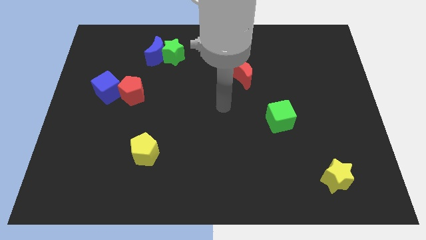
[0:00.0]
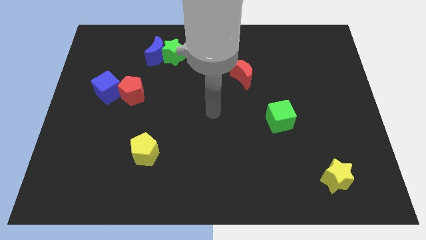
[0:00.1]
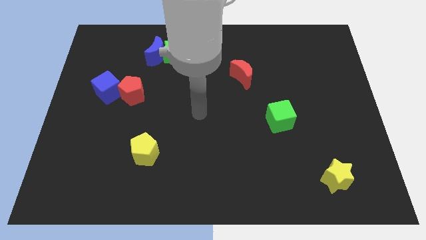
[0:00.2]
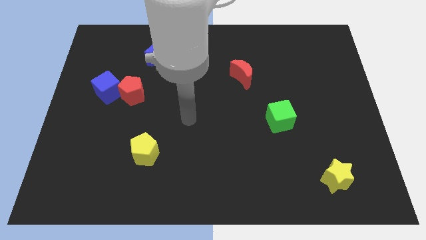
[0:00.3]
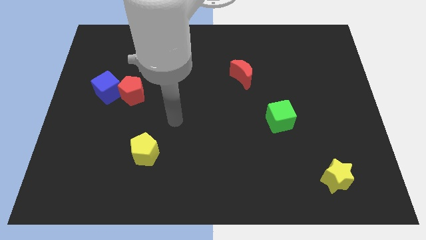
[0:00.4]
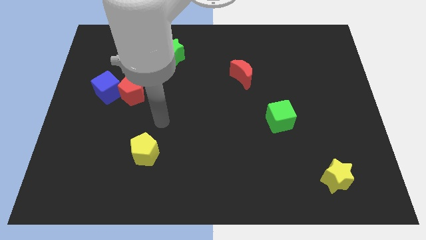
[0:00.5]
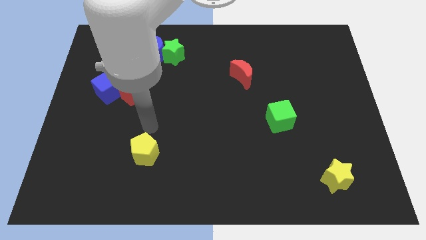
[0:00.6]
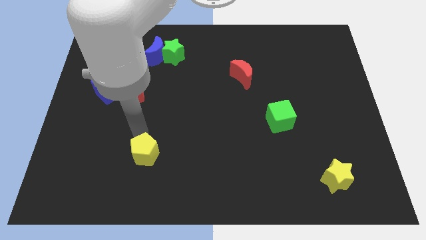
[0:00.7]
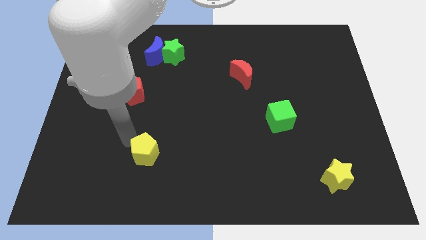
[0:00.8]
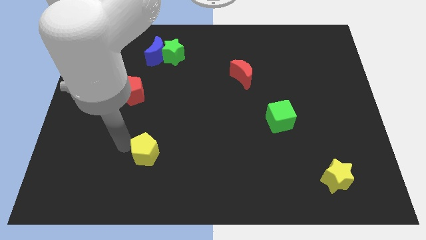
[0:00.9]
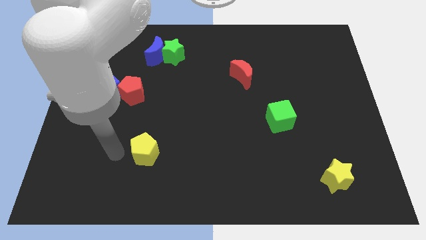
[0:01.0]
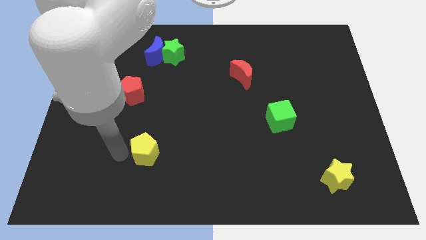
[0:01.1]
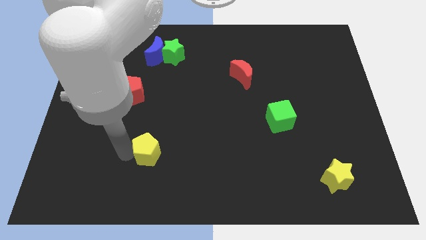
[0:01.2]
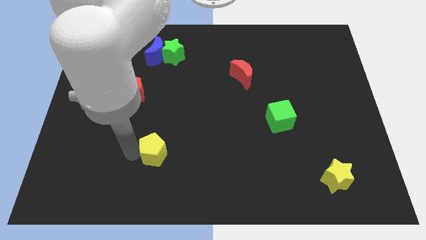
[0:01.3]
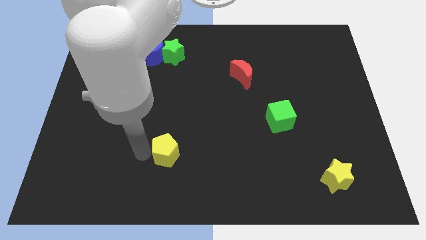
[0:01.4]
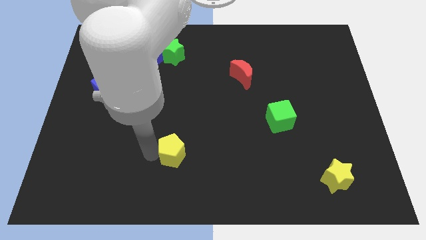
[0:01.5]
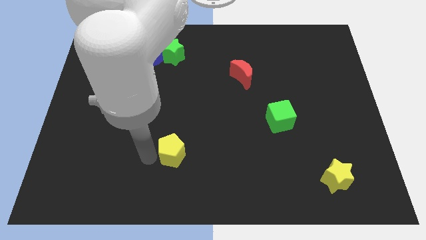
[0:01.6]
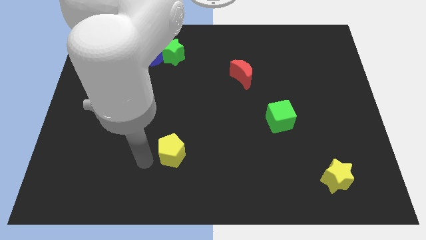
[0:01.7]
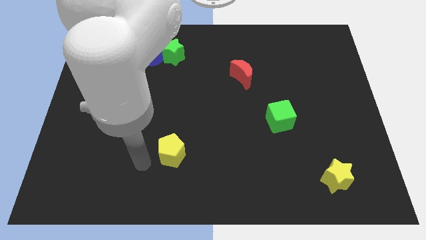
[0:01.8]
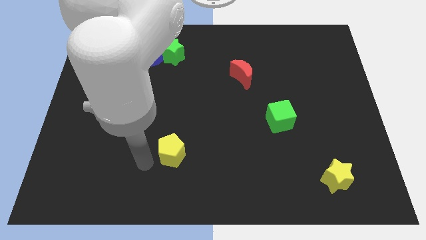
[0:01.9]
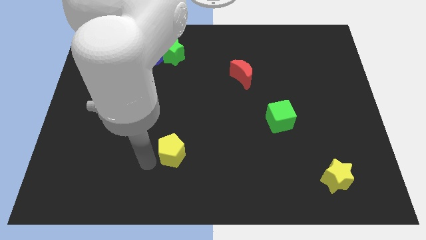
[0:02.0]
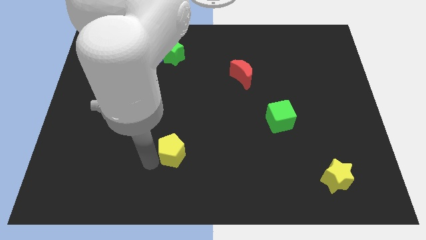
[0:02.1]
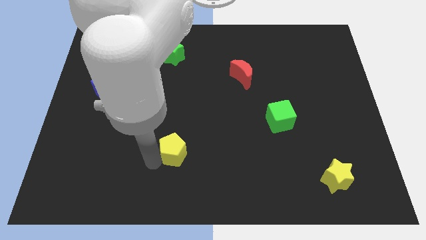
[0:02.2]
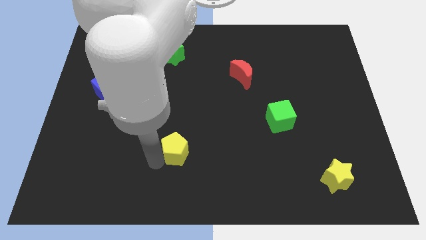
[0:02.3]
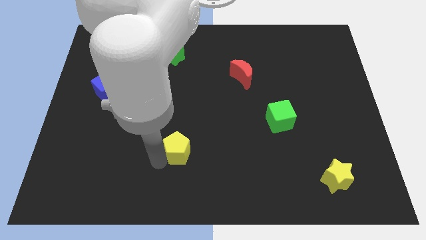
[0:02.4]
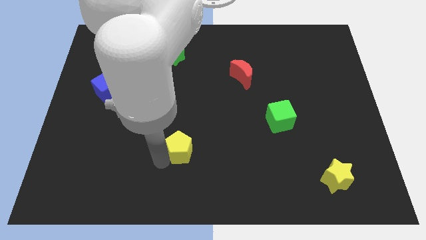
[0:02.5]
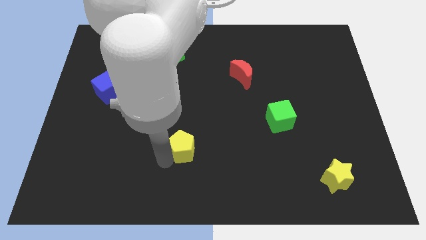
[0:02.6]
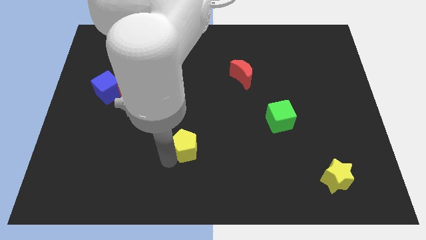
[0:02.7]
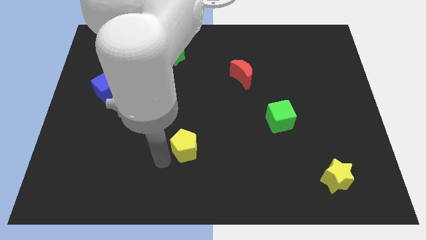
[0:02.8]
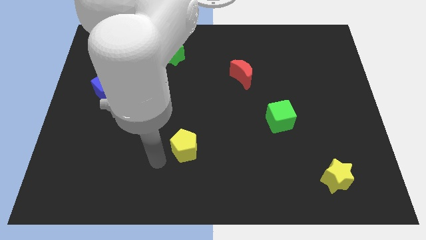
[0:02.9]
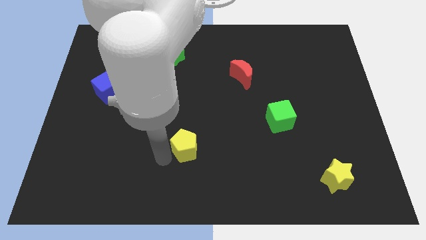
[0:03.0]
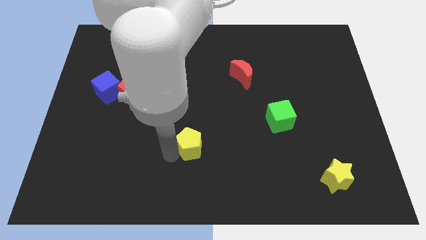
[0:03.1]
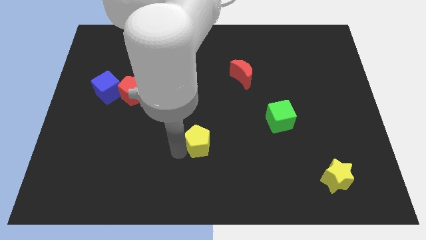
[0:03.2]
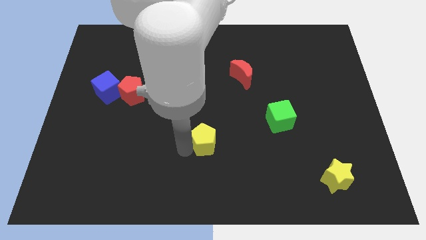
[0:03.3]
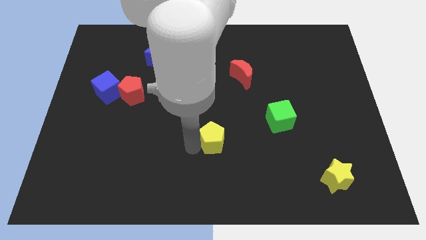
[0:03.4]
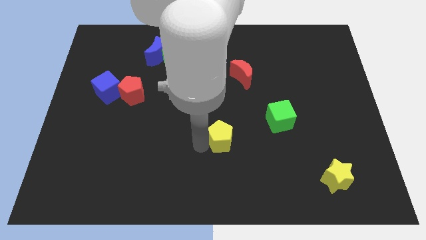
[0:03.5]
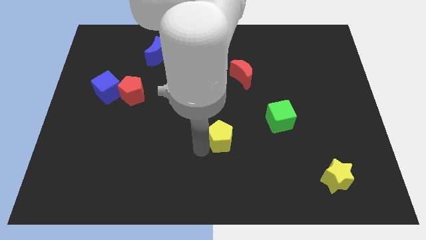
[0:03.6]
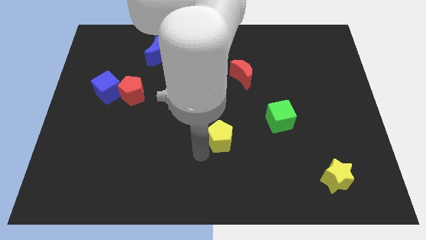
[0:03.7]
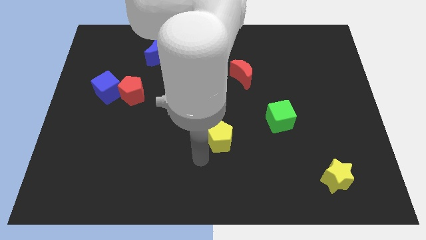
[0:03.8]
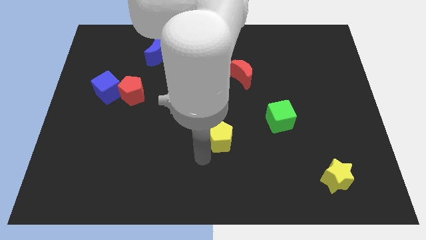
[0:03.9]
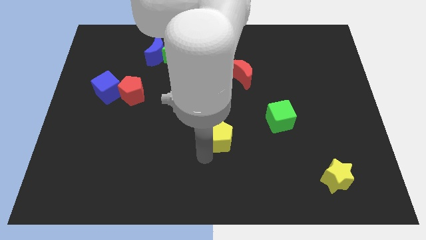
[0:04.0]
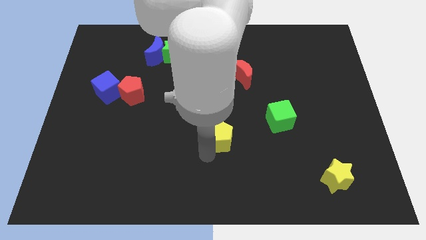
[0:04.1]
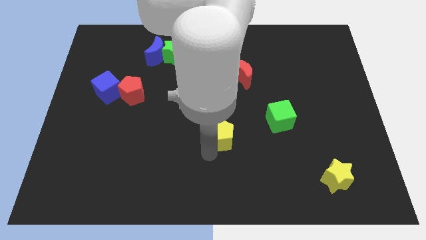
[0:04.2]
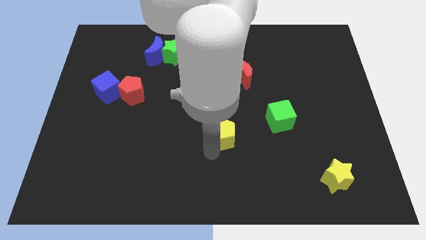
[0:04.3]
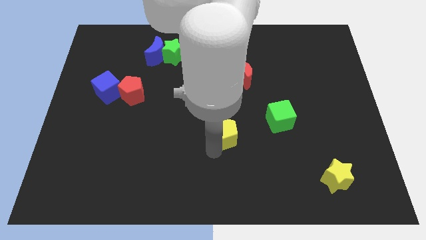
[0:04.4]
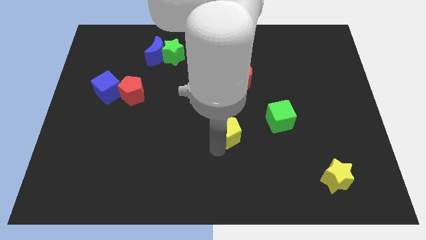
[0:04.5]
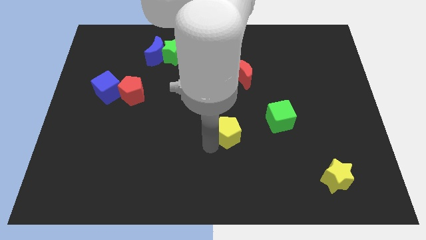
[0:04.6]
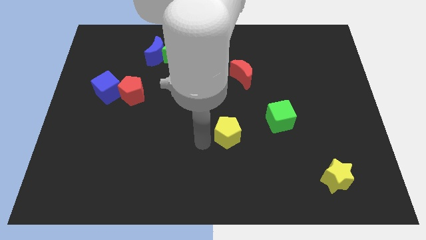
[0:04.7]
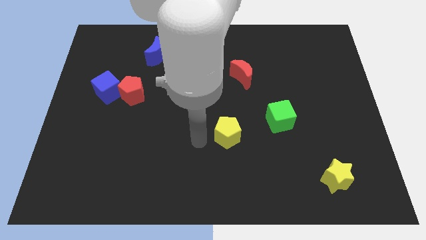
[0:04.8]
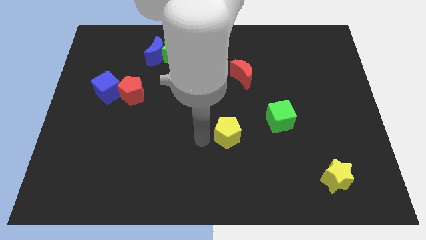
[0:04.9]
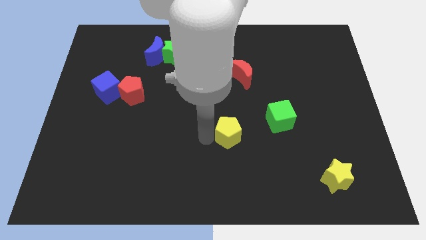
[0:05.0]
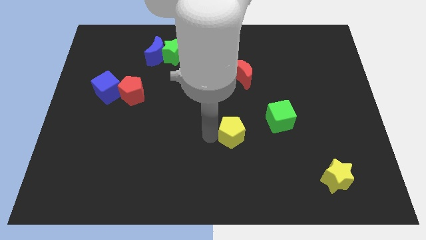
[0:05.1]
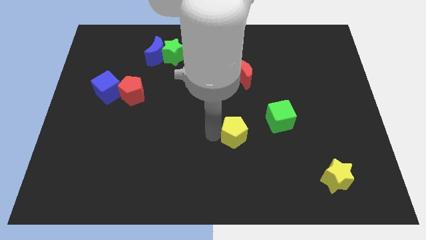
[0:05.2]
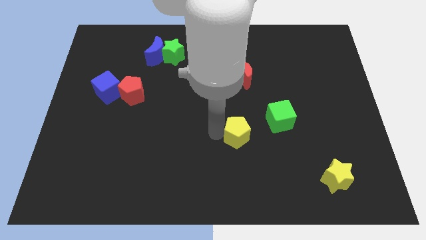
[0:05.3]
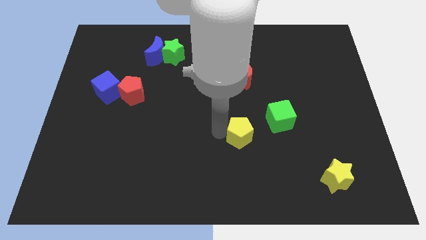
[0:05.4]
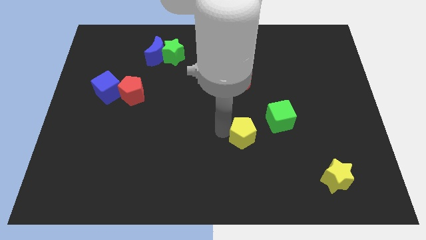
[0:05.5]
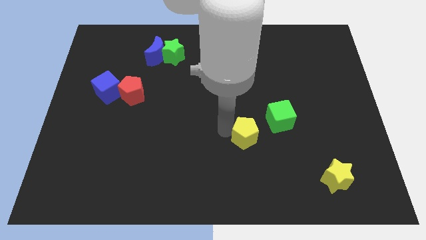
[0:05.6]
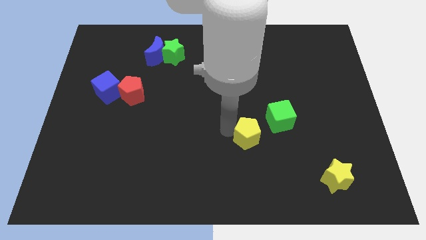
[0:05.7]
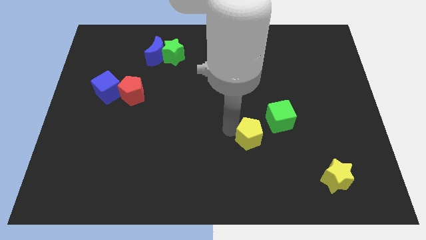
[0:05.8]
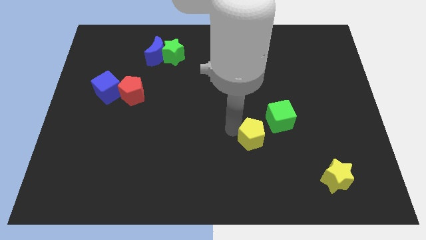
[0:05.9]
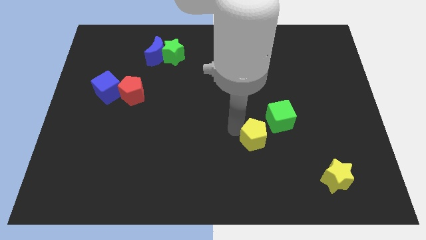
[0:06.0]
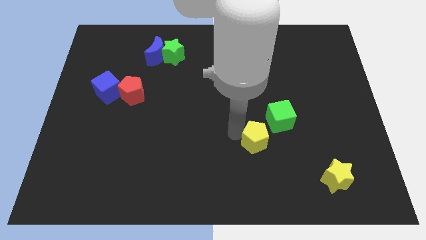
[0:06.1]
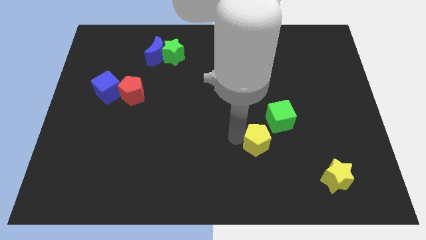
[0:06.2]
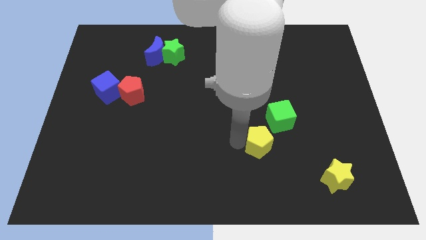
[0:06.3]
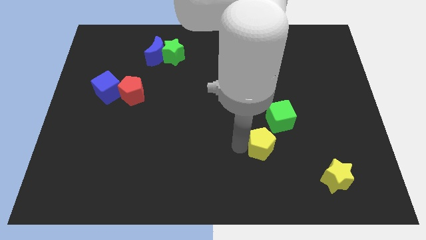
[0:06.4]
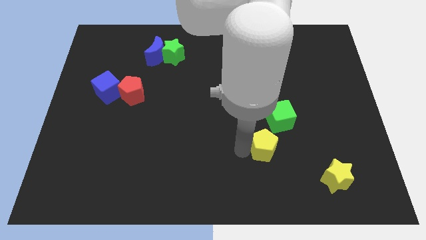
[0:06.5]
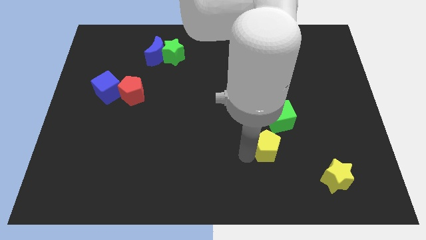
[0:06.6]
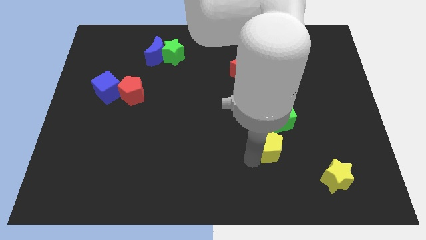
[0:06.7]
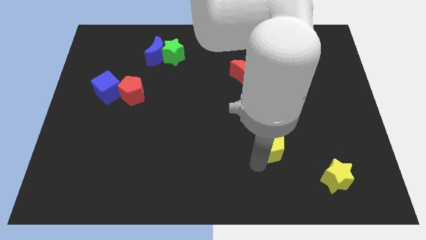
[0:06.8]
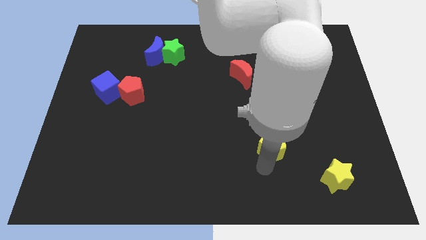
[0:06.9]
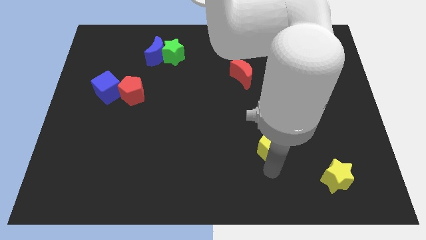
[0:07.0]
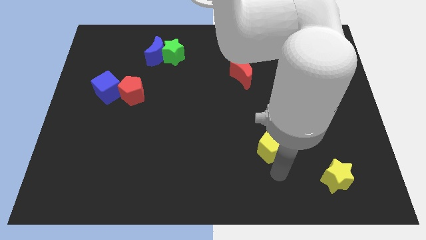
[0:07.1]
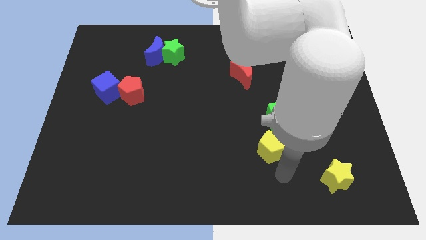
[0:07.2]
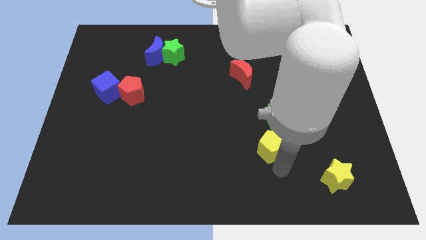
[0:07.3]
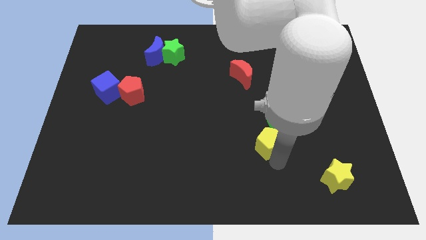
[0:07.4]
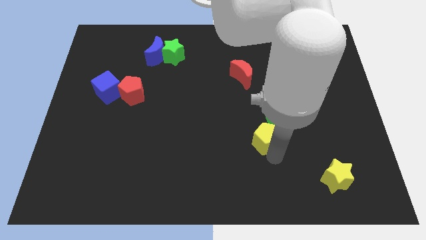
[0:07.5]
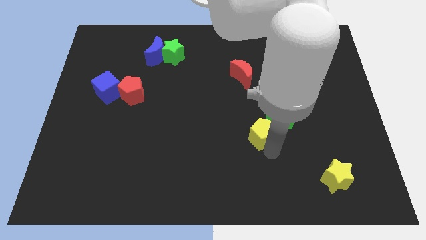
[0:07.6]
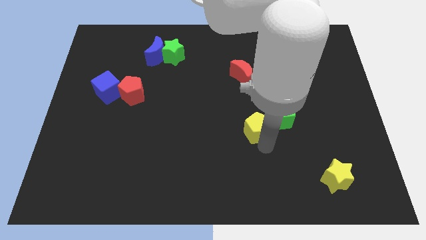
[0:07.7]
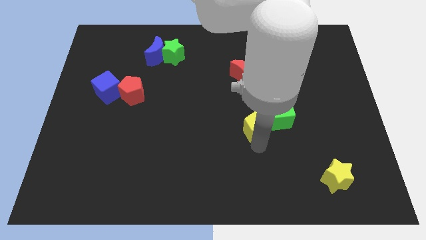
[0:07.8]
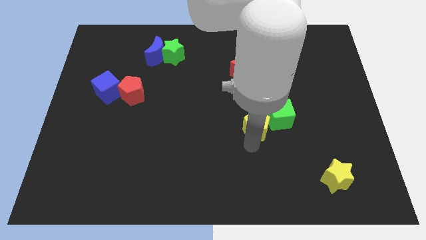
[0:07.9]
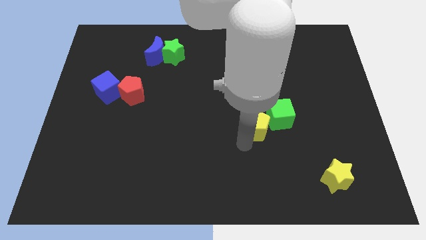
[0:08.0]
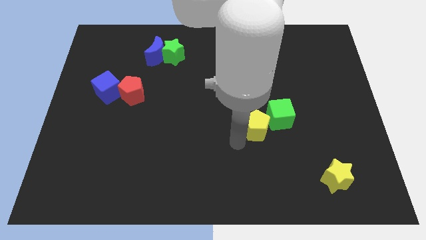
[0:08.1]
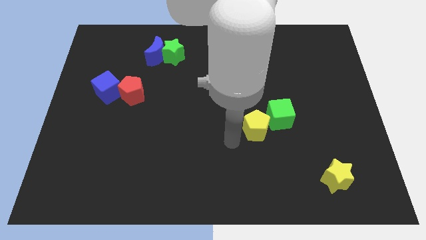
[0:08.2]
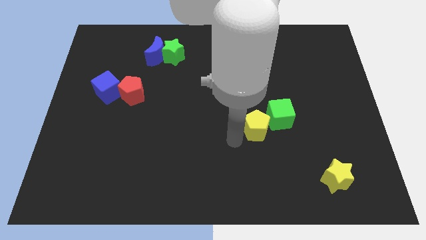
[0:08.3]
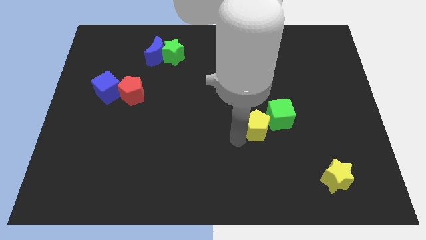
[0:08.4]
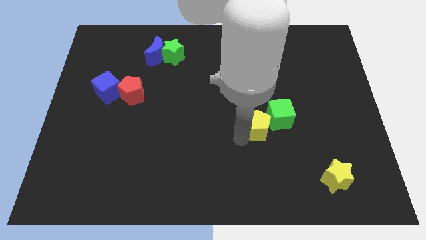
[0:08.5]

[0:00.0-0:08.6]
push the yellow pentagon towards the green cube
